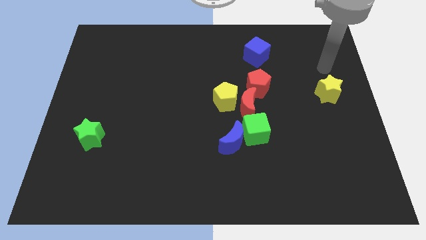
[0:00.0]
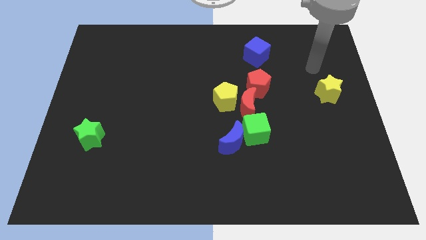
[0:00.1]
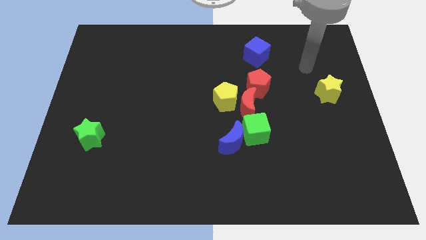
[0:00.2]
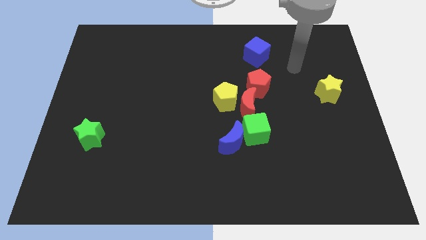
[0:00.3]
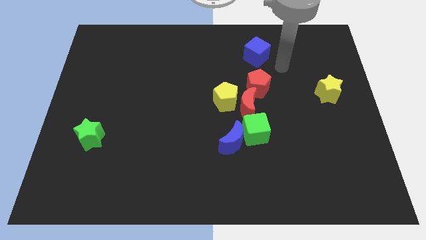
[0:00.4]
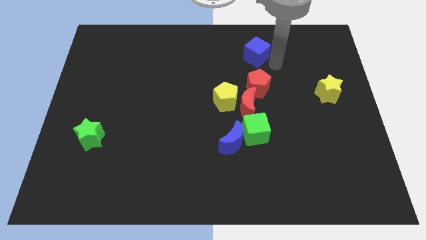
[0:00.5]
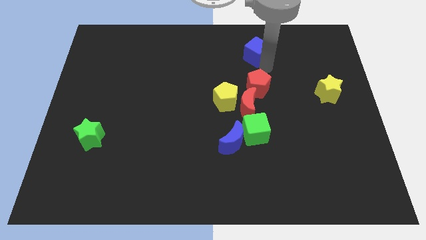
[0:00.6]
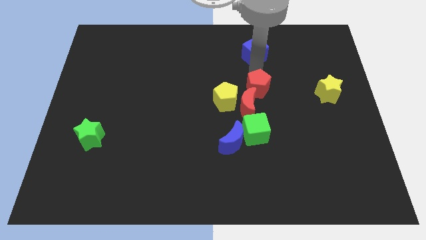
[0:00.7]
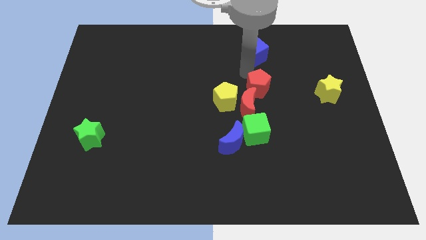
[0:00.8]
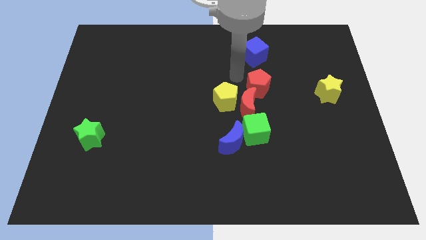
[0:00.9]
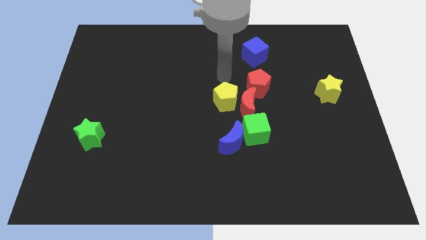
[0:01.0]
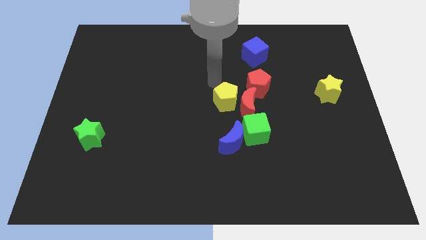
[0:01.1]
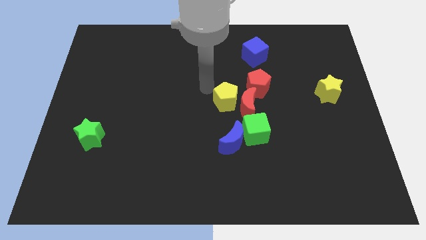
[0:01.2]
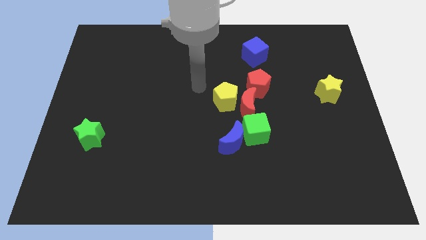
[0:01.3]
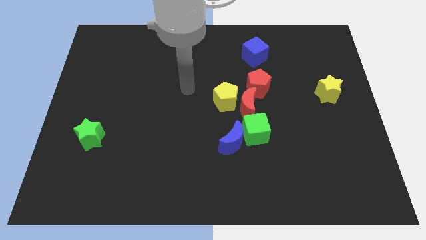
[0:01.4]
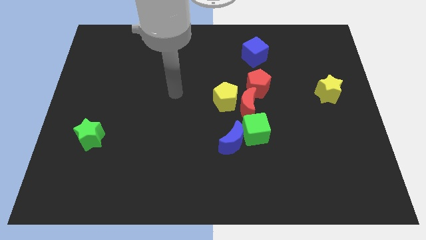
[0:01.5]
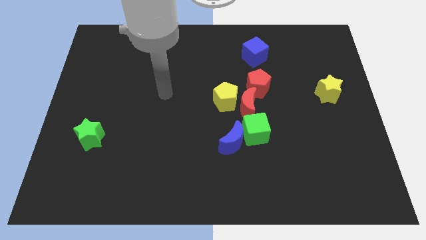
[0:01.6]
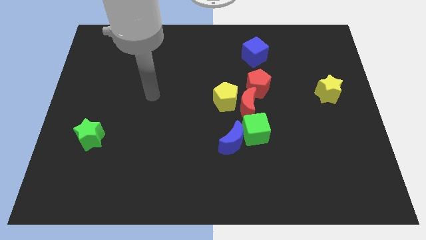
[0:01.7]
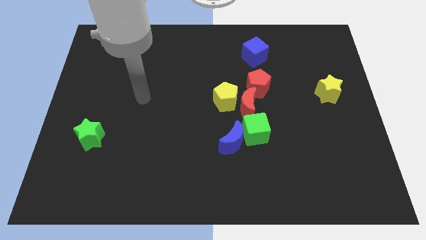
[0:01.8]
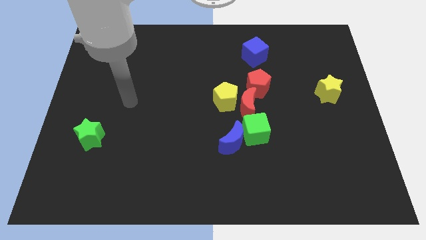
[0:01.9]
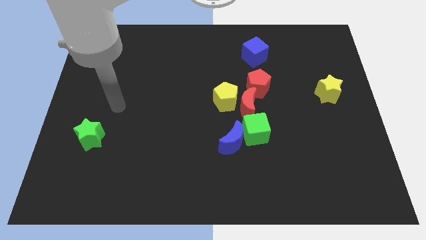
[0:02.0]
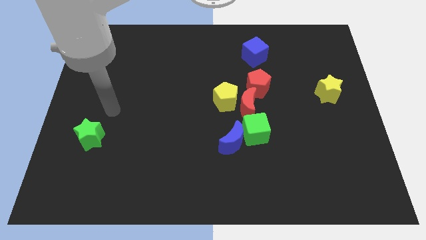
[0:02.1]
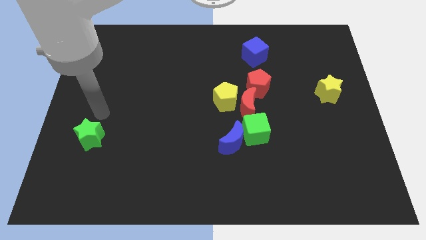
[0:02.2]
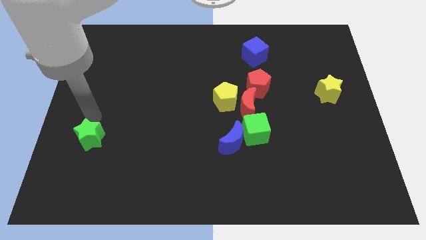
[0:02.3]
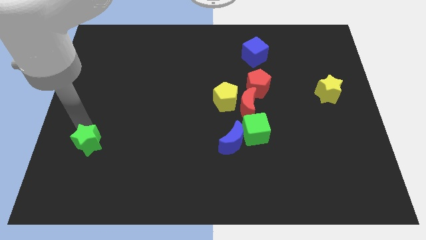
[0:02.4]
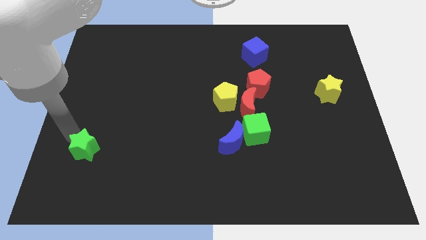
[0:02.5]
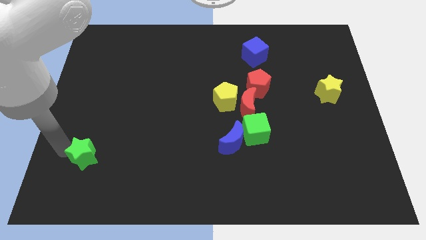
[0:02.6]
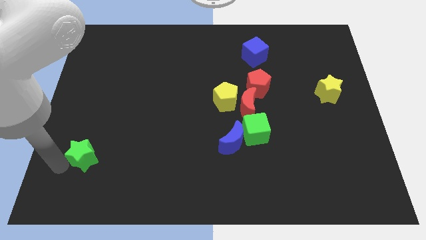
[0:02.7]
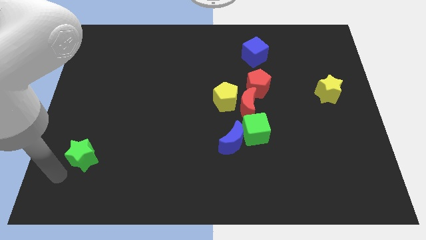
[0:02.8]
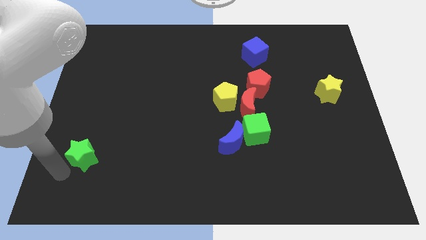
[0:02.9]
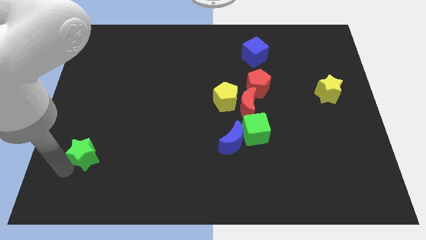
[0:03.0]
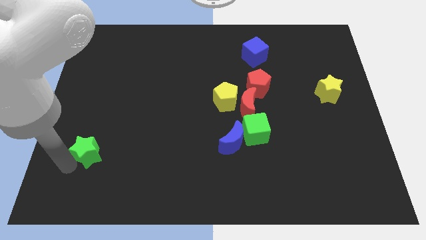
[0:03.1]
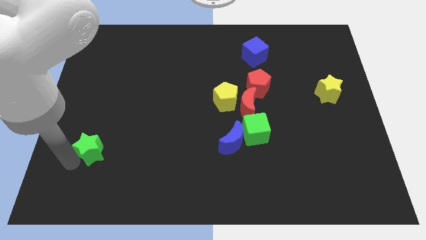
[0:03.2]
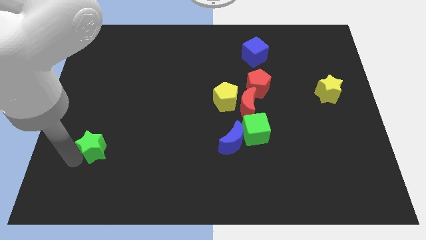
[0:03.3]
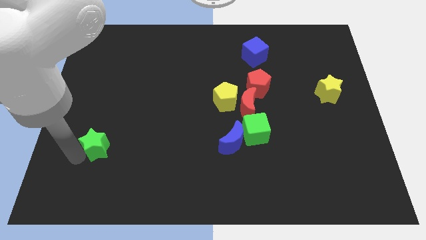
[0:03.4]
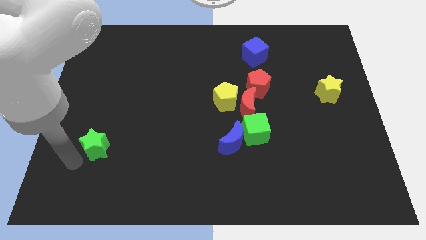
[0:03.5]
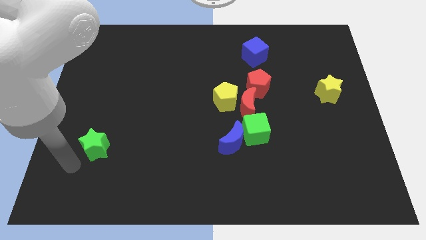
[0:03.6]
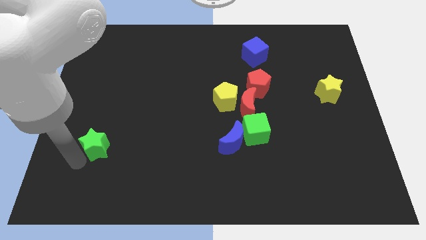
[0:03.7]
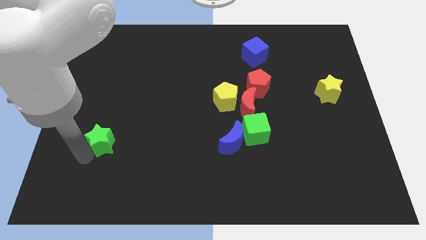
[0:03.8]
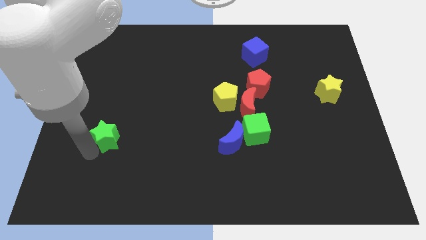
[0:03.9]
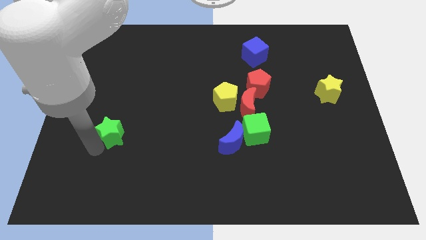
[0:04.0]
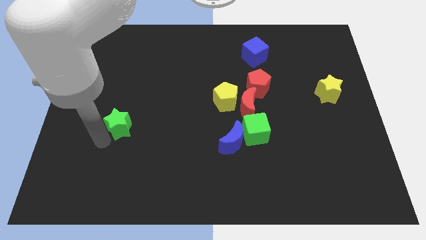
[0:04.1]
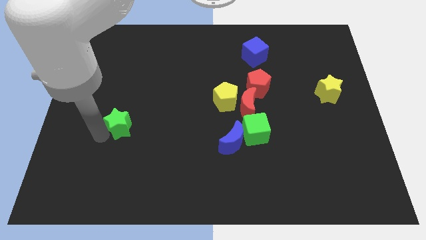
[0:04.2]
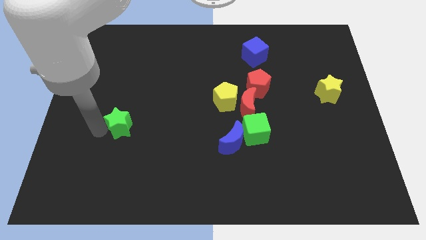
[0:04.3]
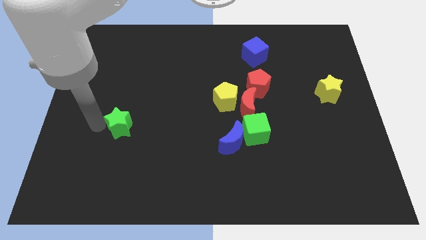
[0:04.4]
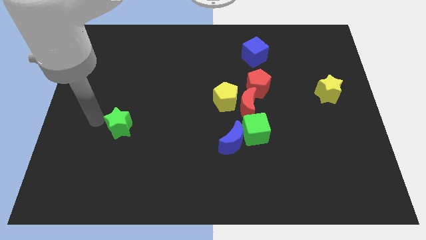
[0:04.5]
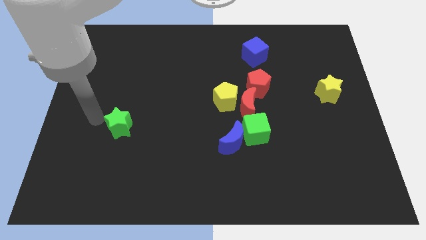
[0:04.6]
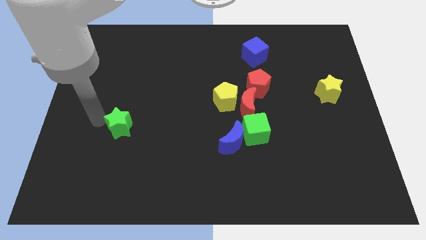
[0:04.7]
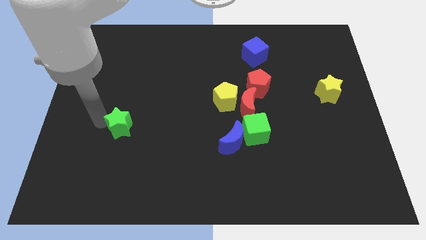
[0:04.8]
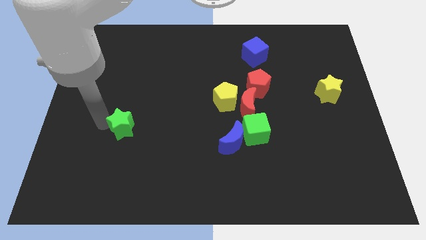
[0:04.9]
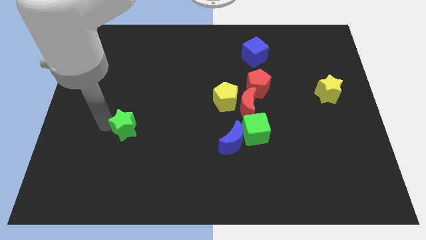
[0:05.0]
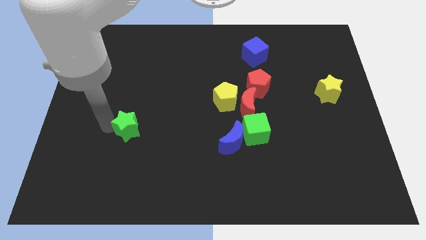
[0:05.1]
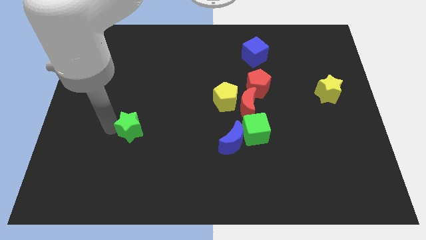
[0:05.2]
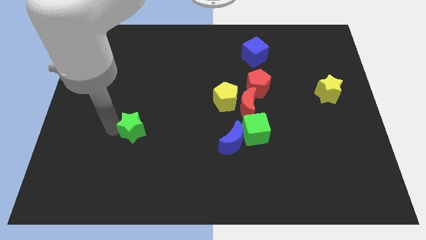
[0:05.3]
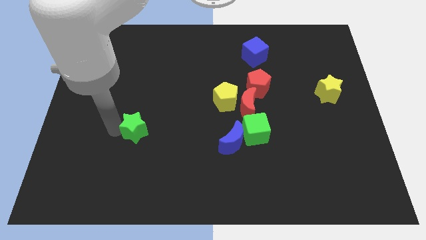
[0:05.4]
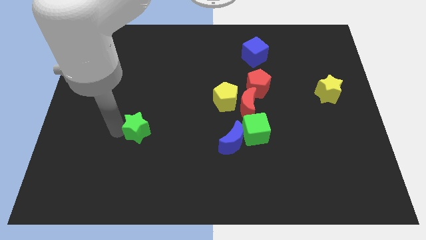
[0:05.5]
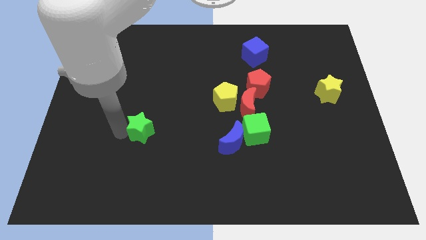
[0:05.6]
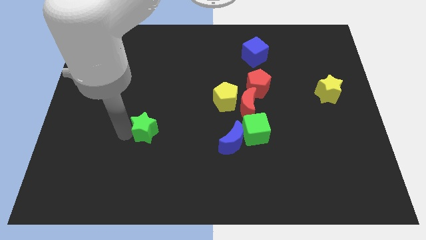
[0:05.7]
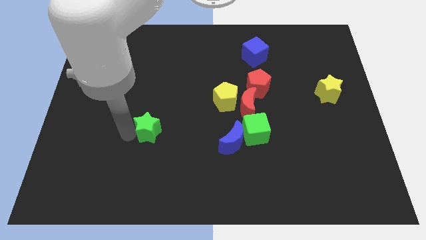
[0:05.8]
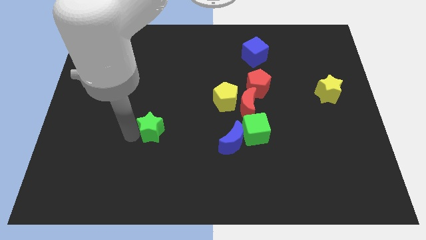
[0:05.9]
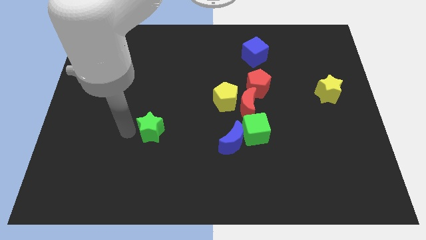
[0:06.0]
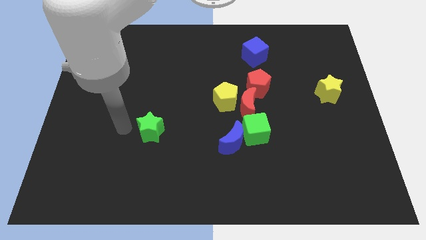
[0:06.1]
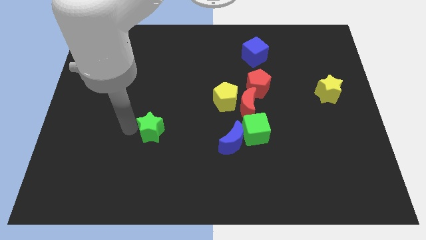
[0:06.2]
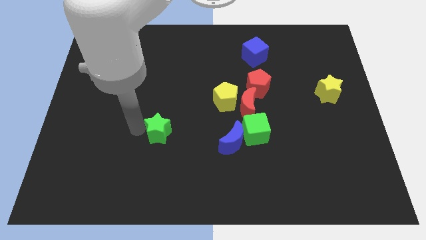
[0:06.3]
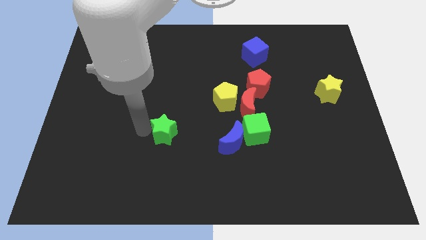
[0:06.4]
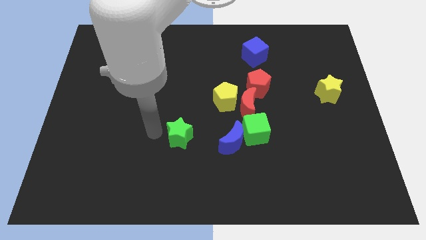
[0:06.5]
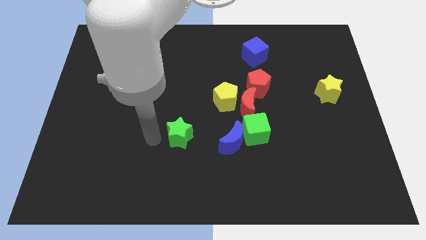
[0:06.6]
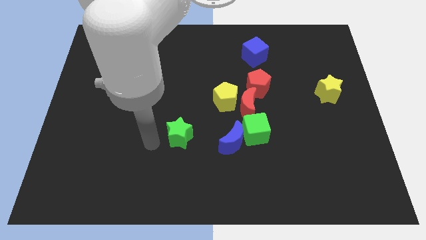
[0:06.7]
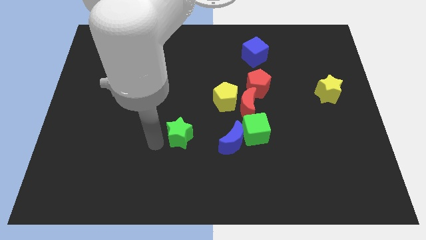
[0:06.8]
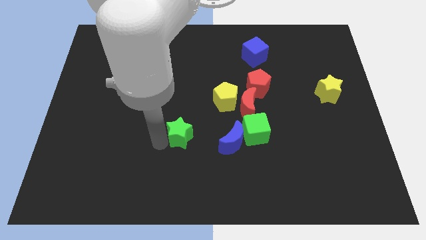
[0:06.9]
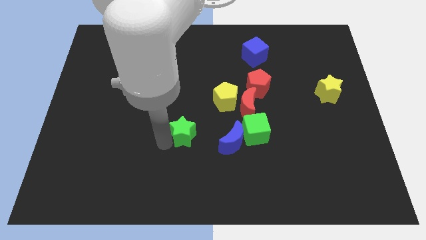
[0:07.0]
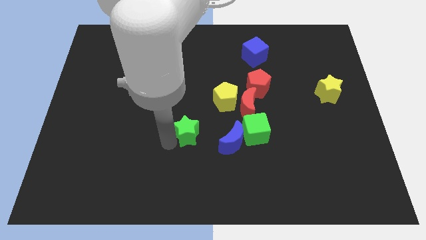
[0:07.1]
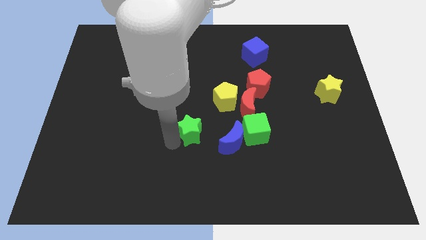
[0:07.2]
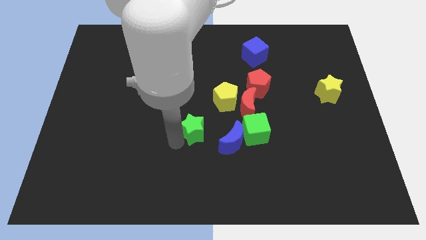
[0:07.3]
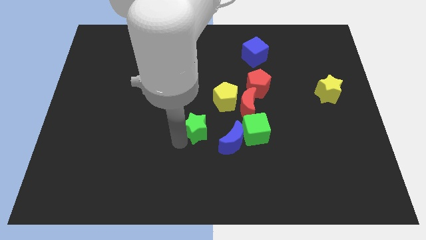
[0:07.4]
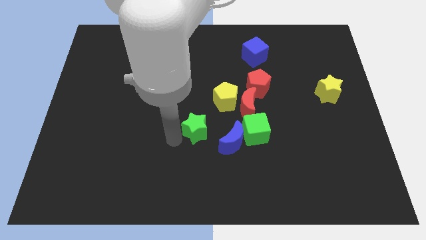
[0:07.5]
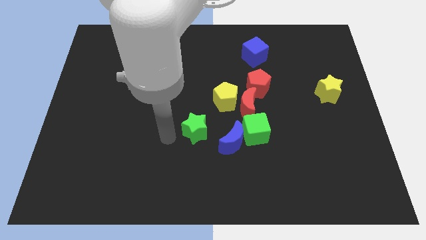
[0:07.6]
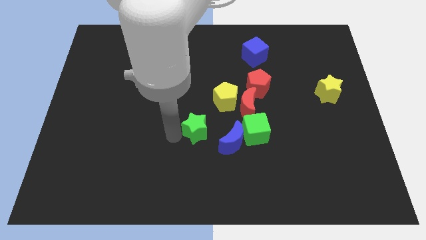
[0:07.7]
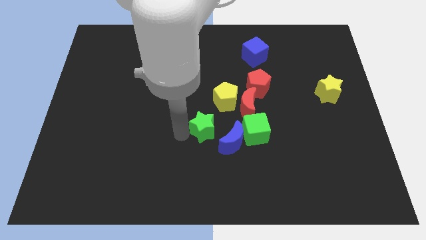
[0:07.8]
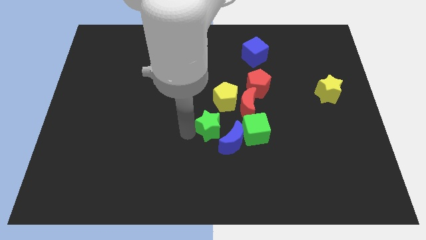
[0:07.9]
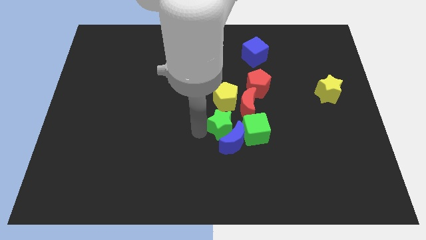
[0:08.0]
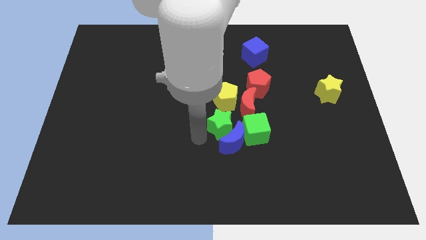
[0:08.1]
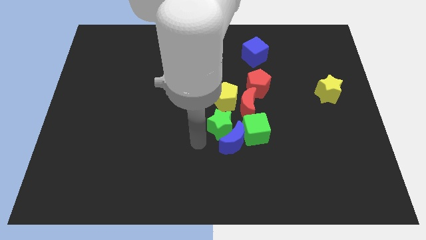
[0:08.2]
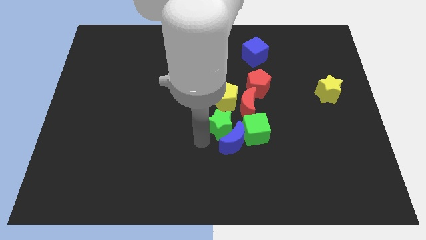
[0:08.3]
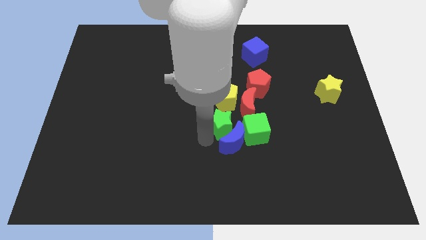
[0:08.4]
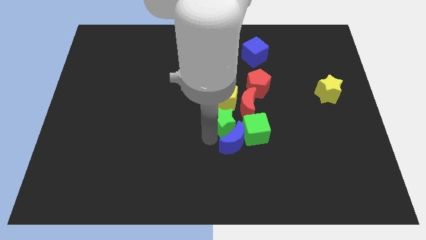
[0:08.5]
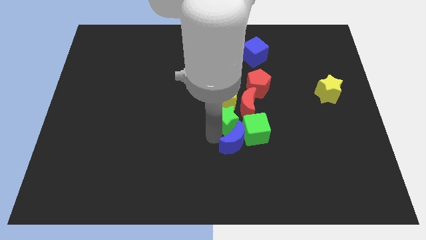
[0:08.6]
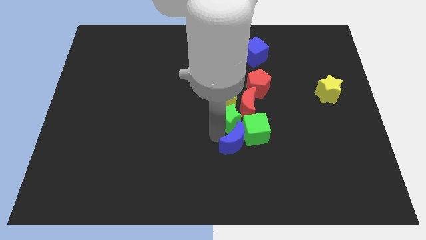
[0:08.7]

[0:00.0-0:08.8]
move the green star towards the red moon
